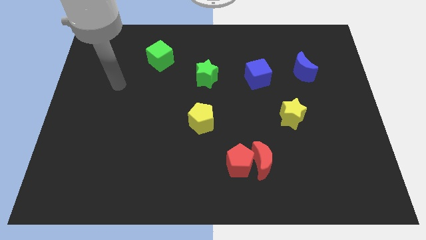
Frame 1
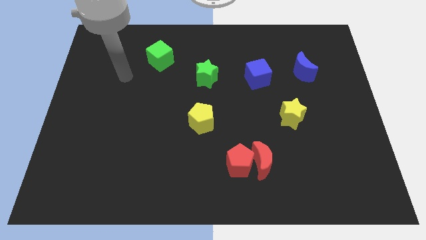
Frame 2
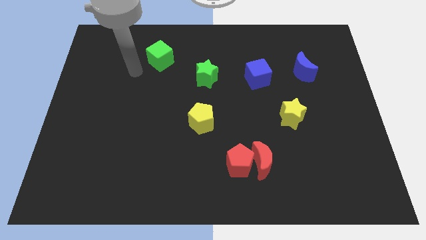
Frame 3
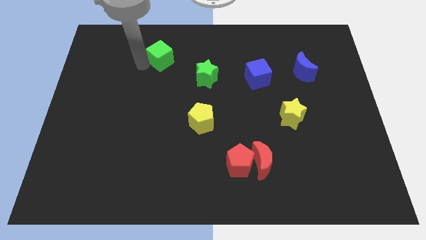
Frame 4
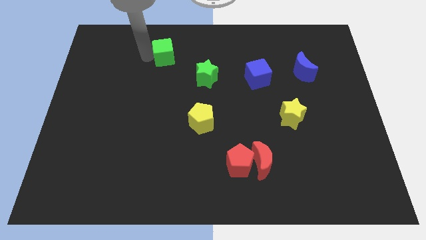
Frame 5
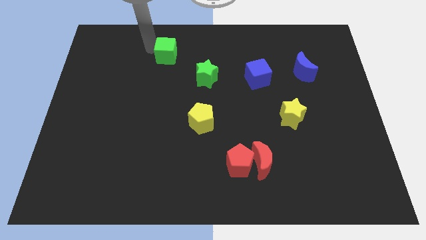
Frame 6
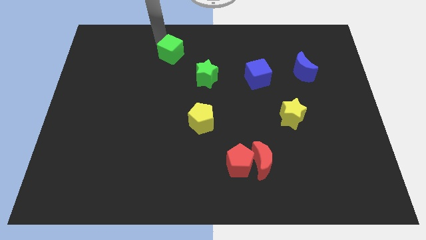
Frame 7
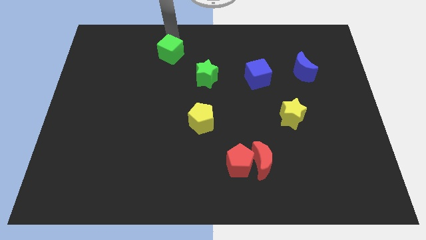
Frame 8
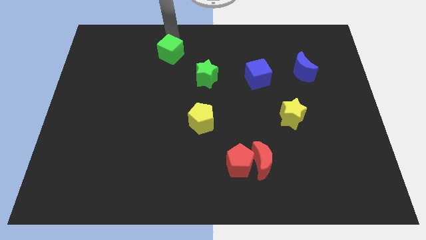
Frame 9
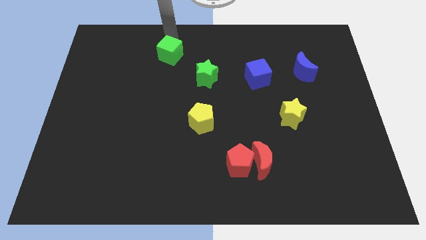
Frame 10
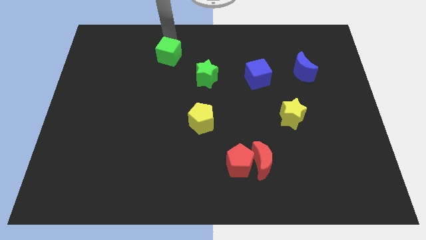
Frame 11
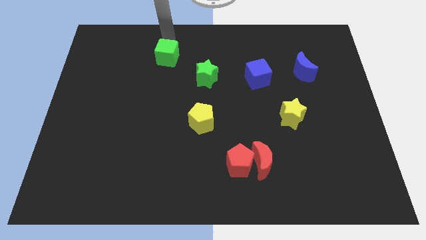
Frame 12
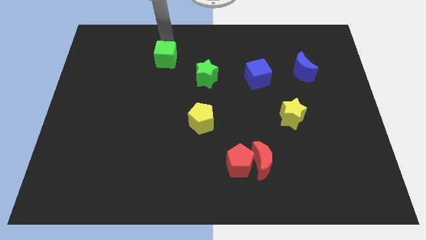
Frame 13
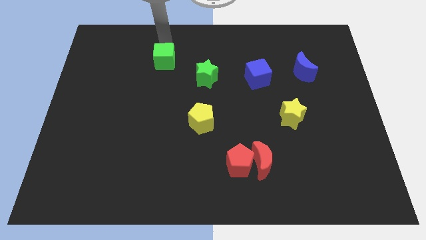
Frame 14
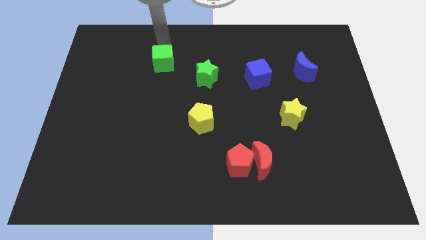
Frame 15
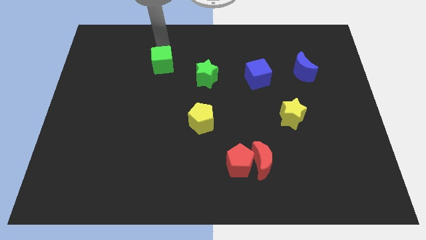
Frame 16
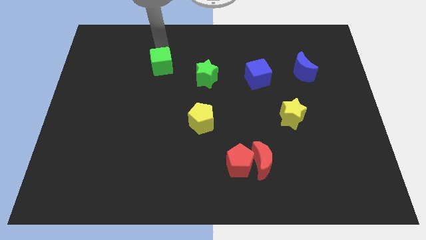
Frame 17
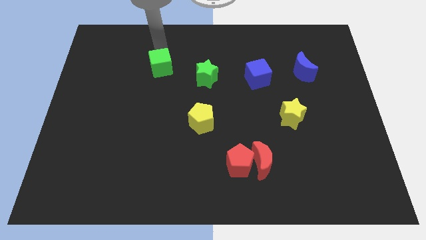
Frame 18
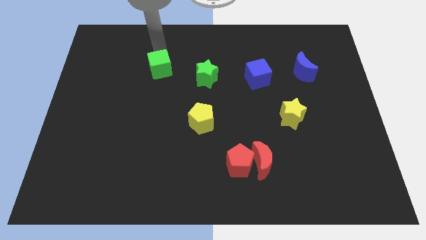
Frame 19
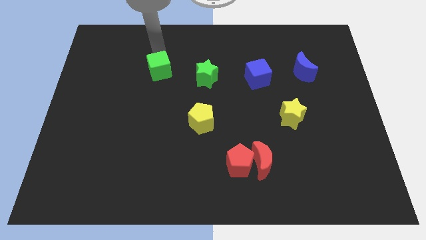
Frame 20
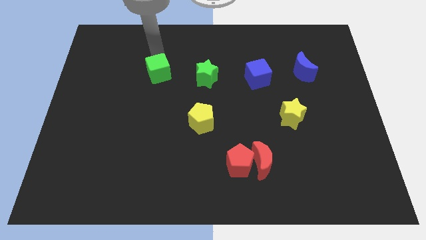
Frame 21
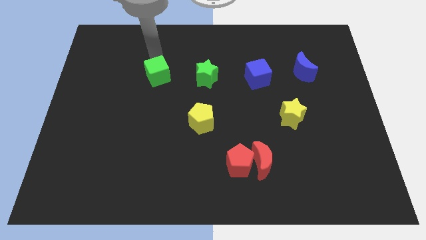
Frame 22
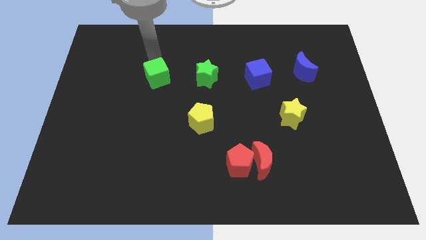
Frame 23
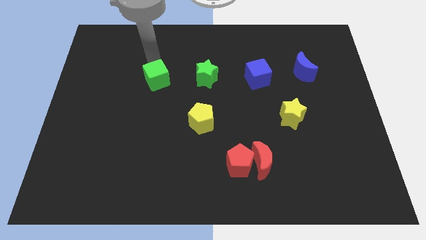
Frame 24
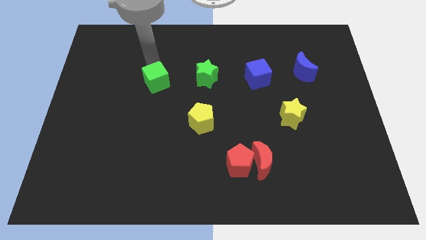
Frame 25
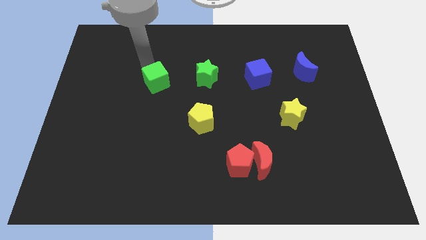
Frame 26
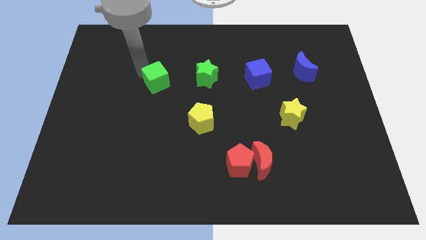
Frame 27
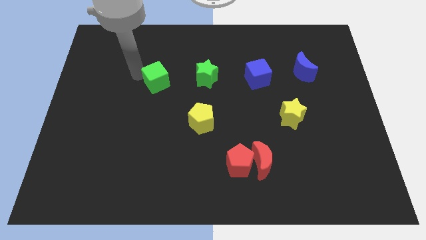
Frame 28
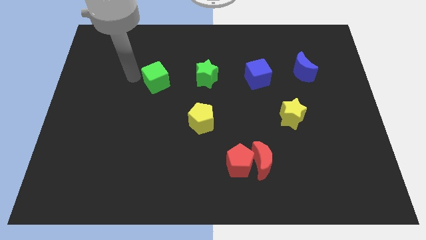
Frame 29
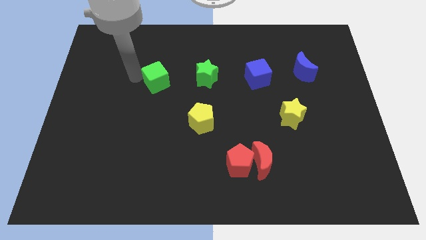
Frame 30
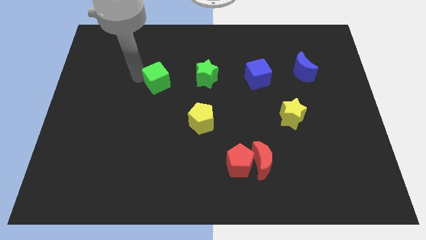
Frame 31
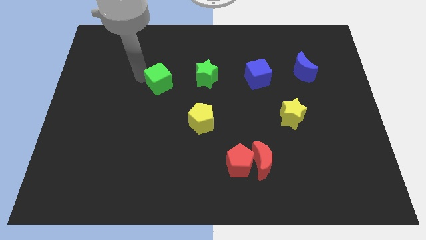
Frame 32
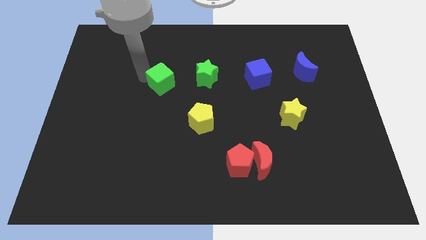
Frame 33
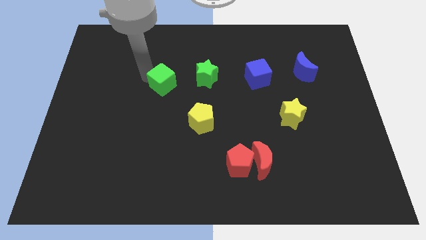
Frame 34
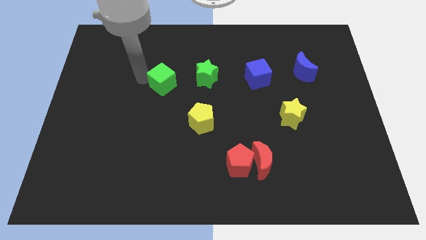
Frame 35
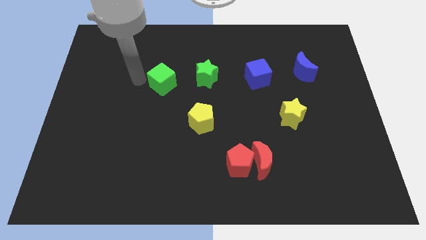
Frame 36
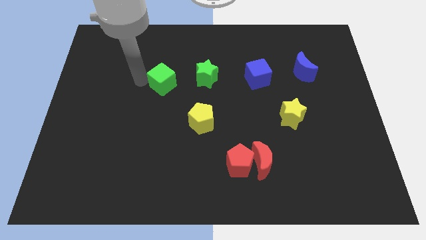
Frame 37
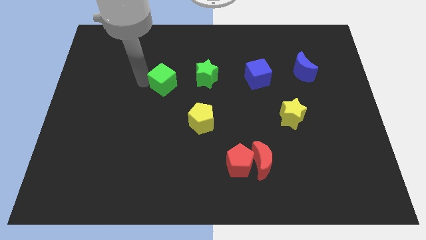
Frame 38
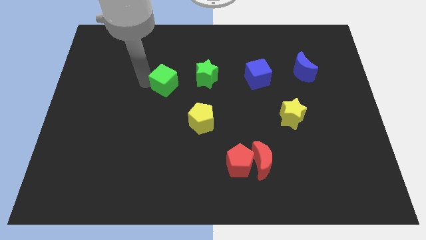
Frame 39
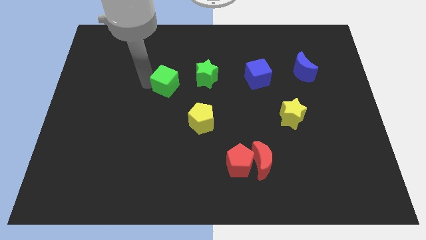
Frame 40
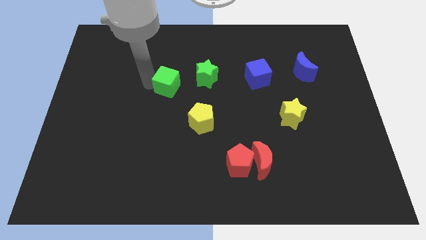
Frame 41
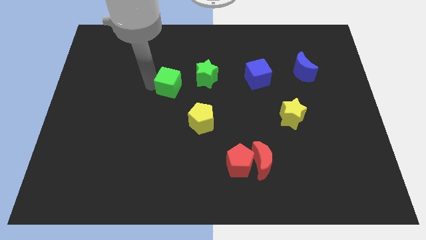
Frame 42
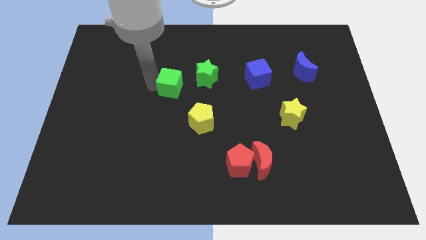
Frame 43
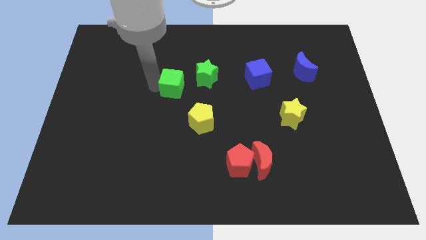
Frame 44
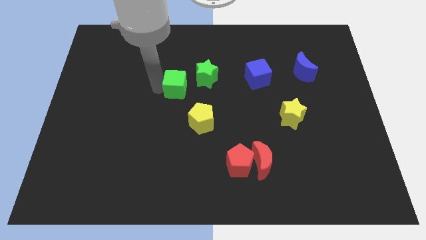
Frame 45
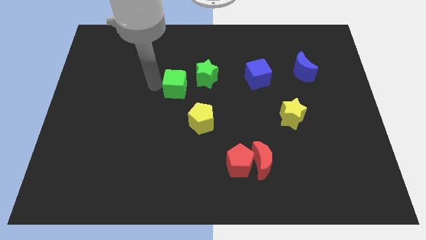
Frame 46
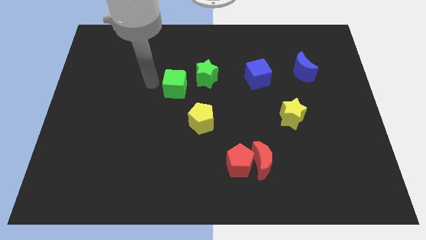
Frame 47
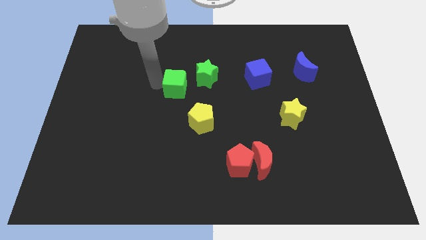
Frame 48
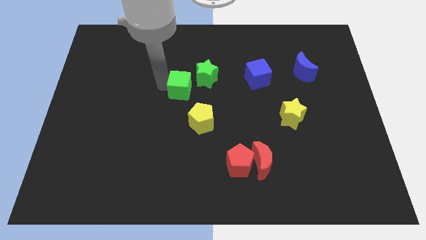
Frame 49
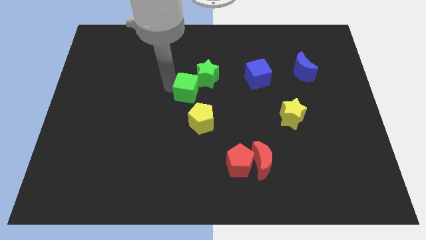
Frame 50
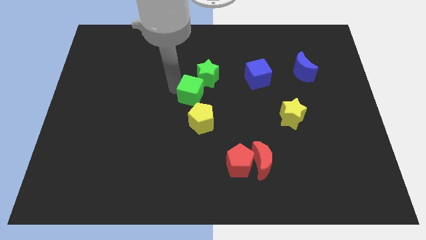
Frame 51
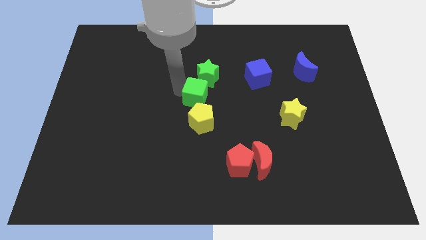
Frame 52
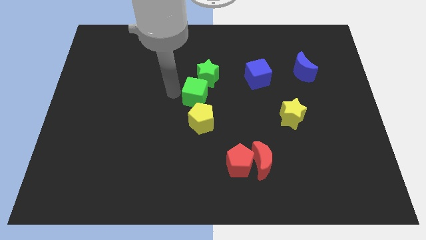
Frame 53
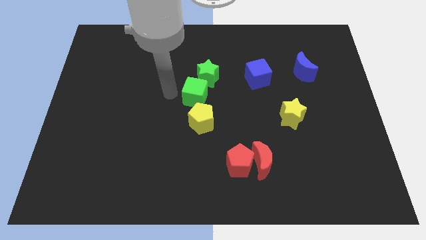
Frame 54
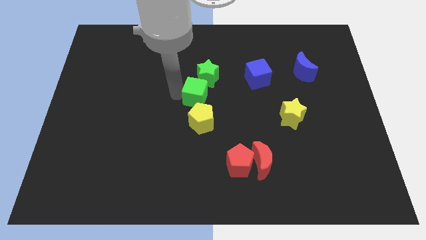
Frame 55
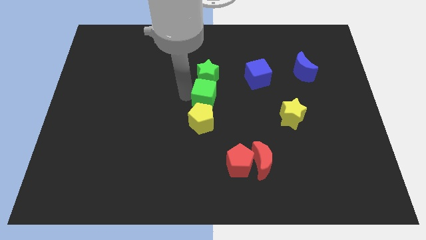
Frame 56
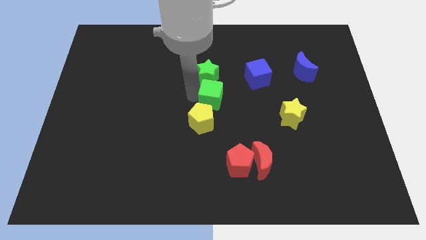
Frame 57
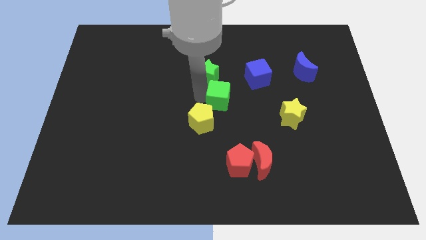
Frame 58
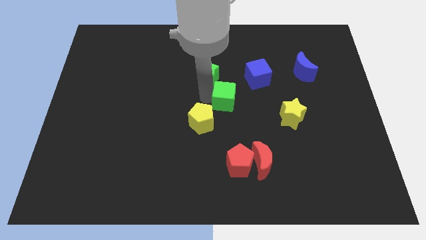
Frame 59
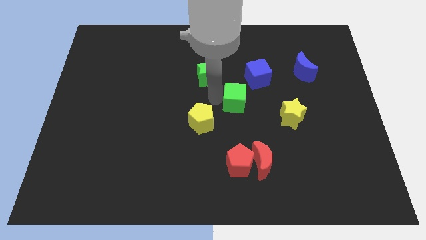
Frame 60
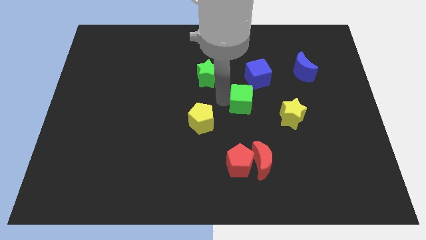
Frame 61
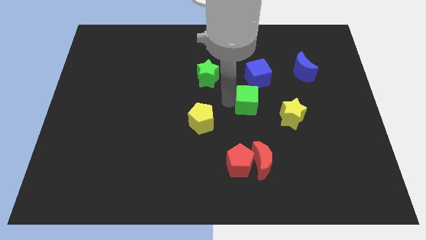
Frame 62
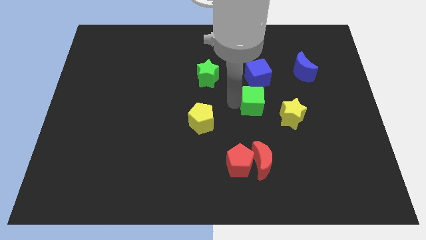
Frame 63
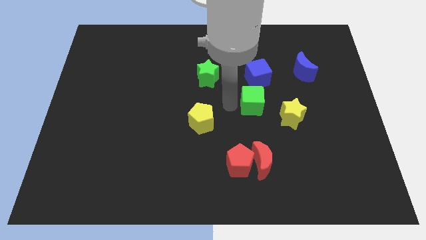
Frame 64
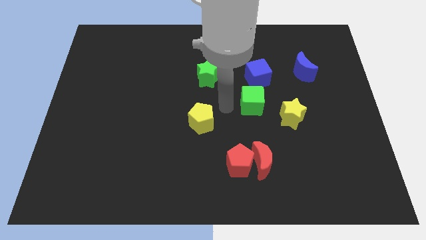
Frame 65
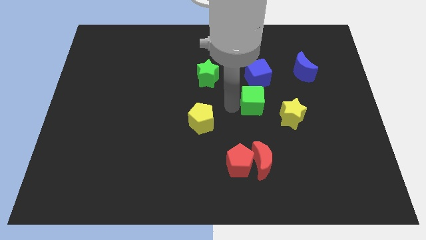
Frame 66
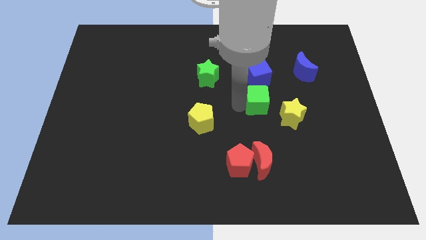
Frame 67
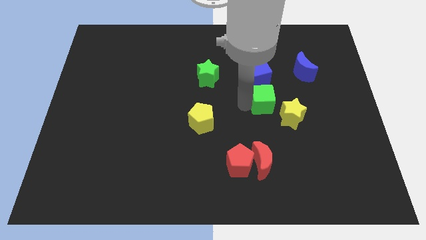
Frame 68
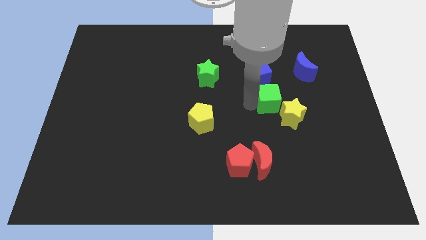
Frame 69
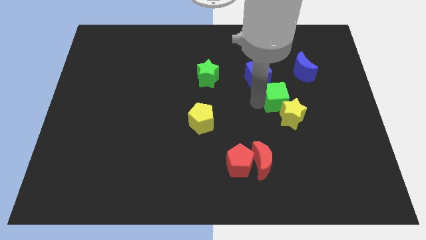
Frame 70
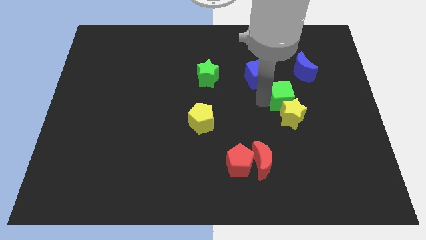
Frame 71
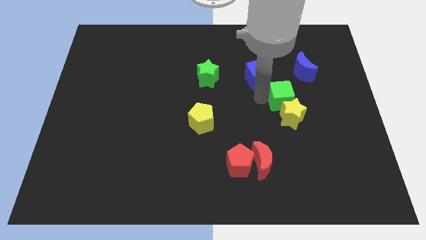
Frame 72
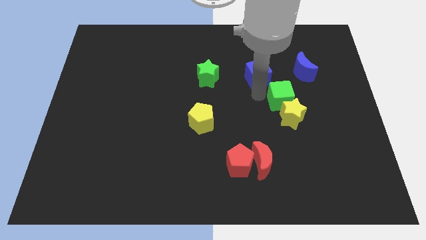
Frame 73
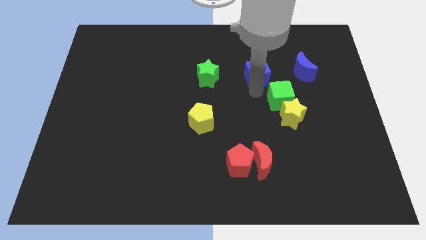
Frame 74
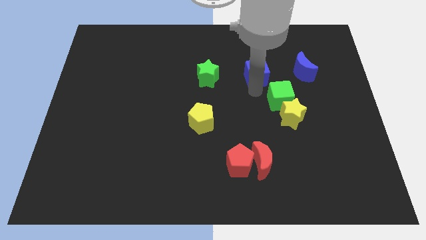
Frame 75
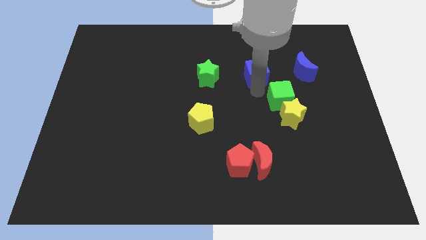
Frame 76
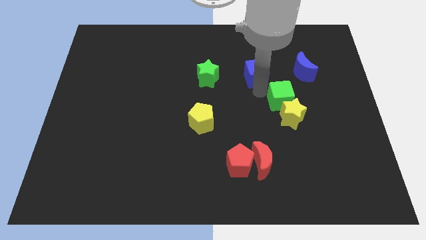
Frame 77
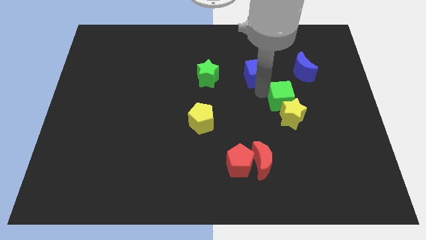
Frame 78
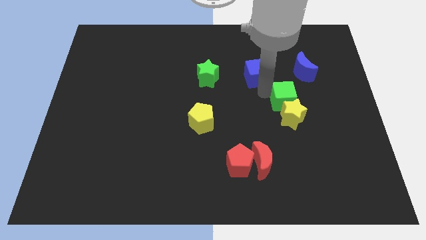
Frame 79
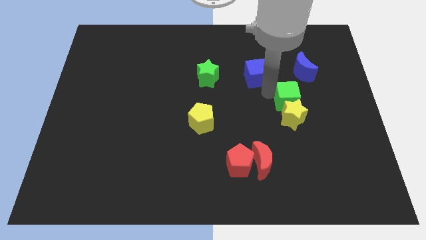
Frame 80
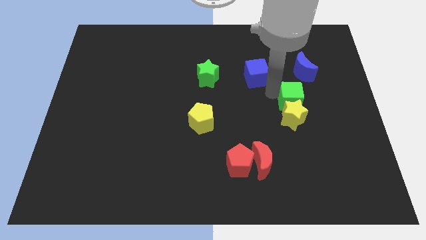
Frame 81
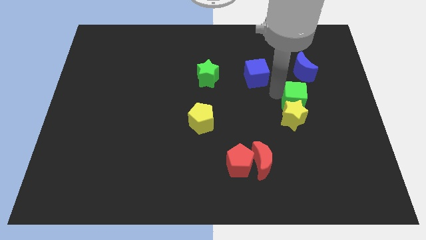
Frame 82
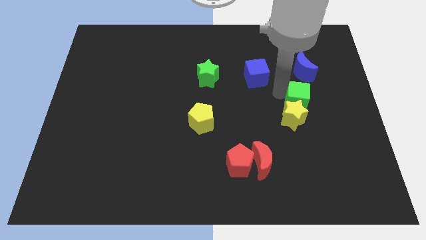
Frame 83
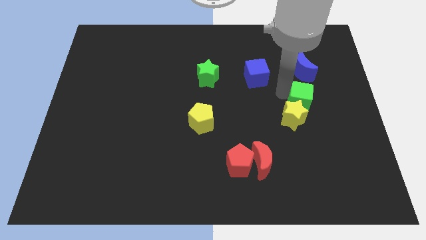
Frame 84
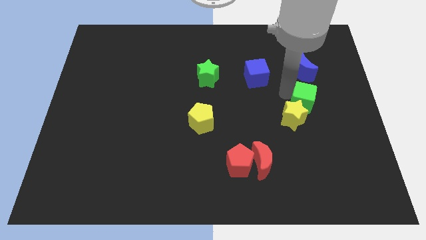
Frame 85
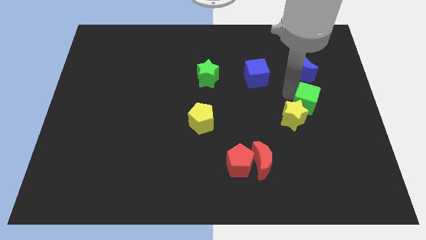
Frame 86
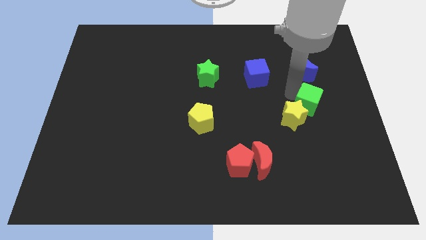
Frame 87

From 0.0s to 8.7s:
slide the green cube to the right of the yellow star
